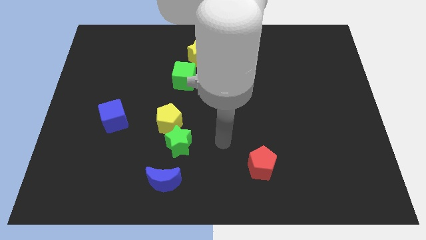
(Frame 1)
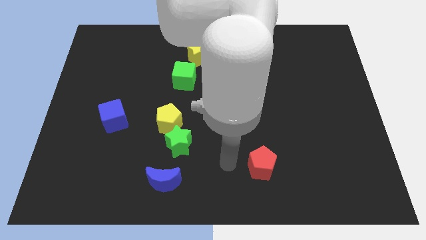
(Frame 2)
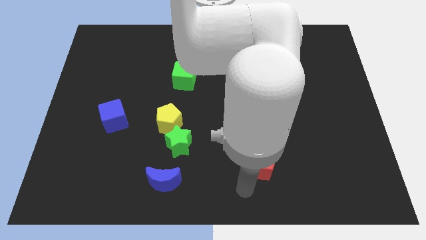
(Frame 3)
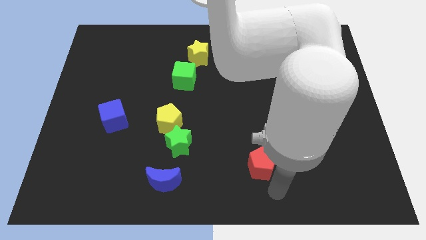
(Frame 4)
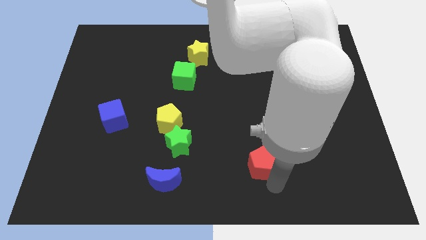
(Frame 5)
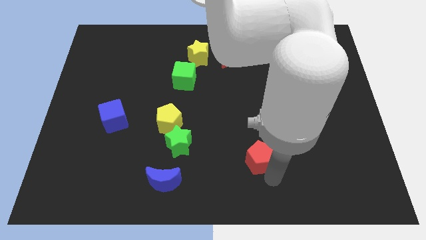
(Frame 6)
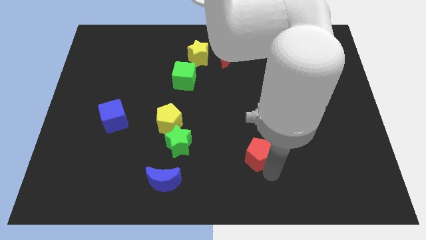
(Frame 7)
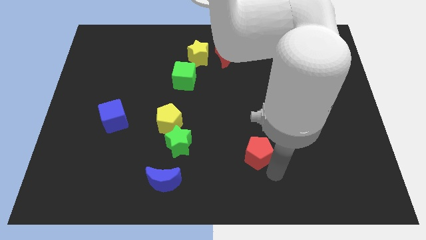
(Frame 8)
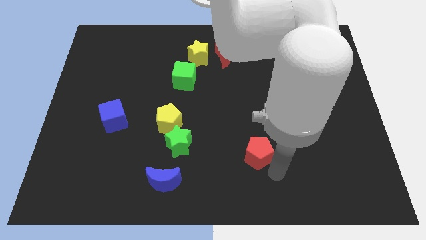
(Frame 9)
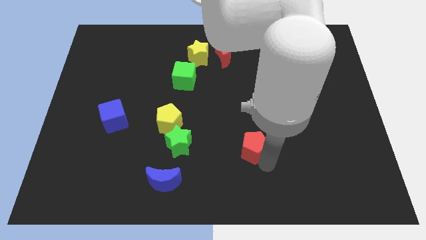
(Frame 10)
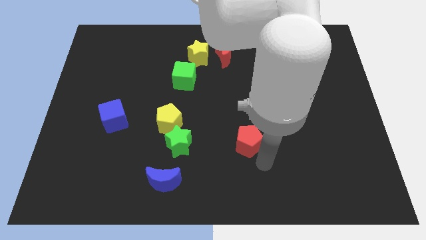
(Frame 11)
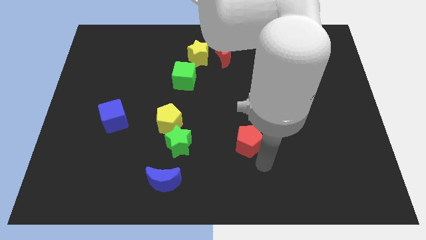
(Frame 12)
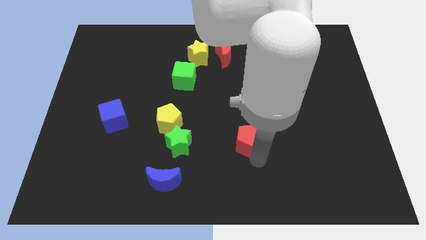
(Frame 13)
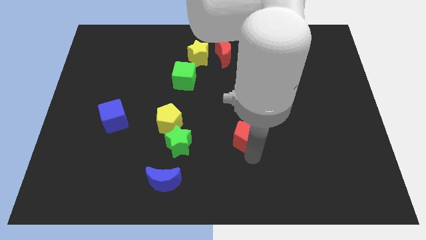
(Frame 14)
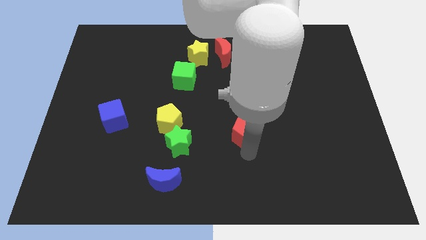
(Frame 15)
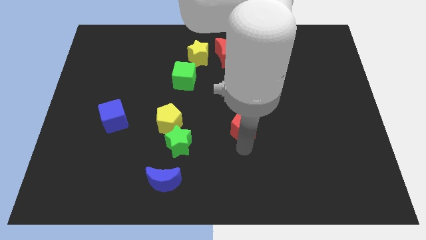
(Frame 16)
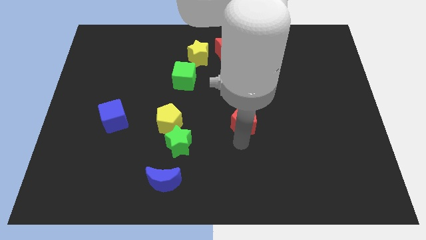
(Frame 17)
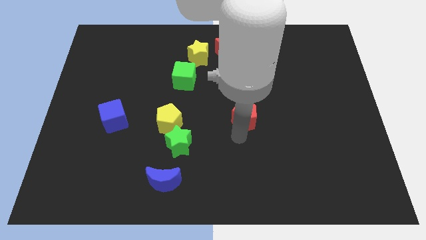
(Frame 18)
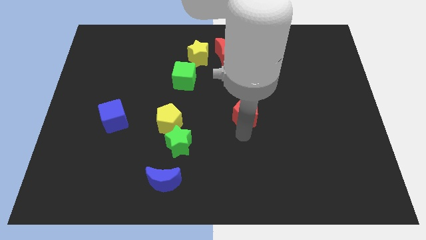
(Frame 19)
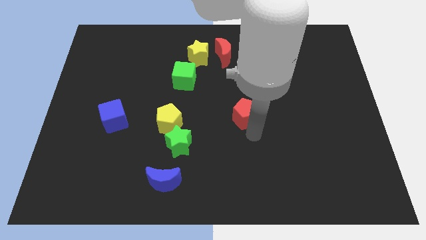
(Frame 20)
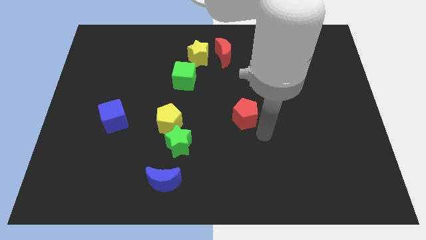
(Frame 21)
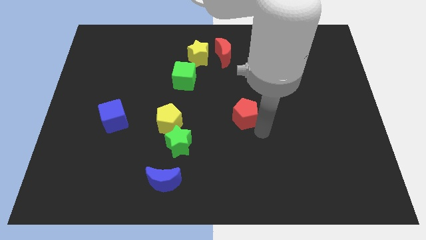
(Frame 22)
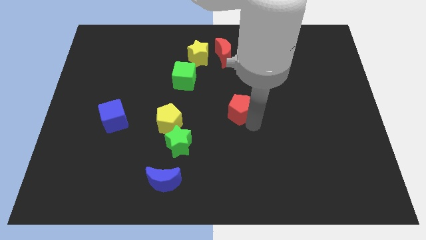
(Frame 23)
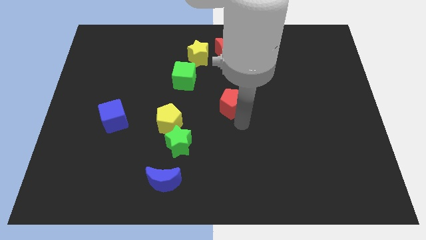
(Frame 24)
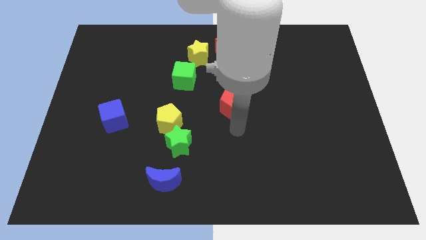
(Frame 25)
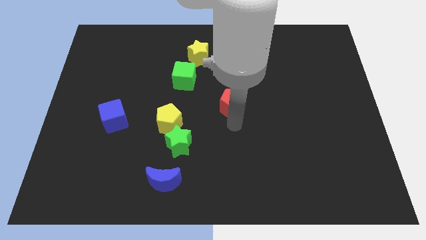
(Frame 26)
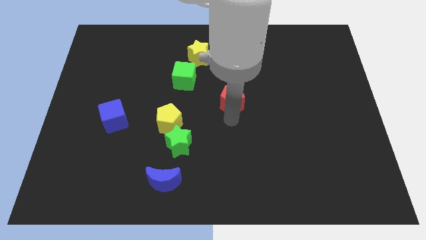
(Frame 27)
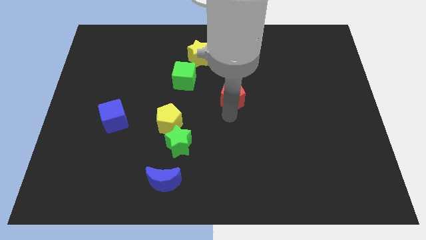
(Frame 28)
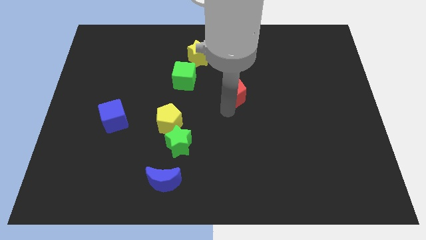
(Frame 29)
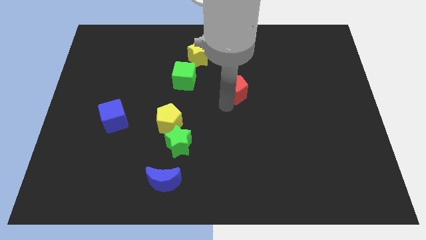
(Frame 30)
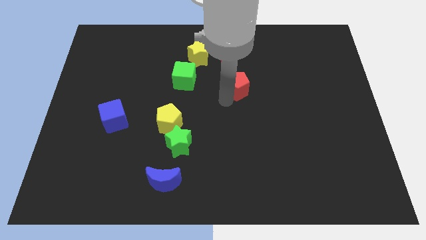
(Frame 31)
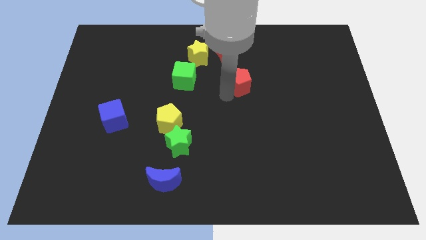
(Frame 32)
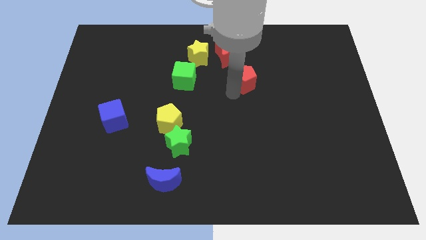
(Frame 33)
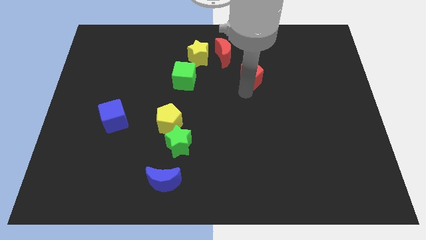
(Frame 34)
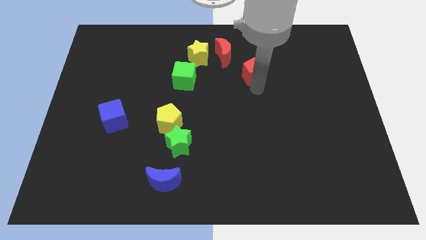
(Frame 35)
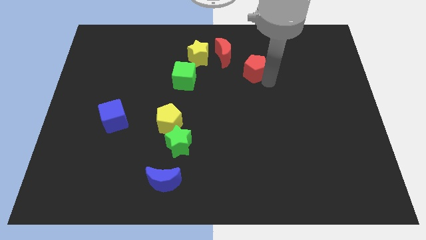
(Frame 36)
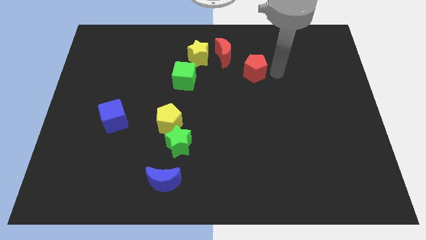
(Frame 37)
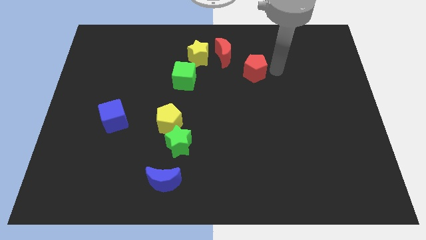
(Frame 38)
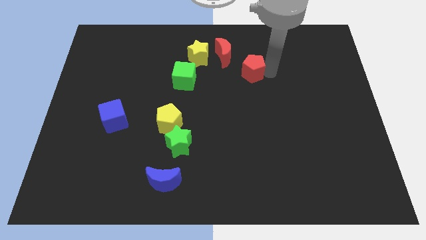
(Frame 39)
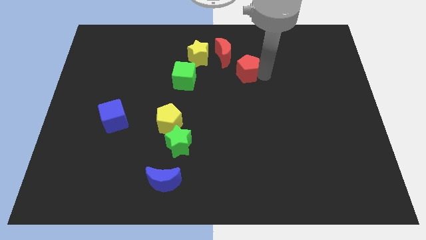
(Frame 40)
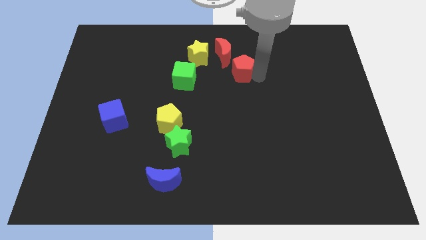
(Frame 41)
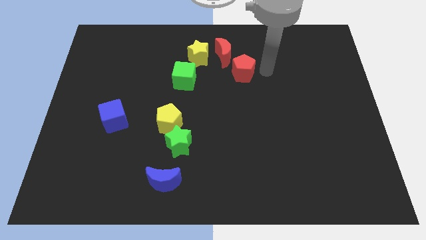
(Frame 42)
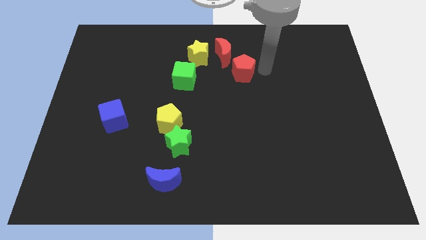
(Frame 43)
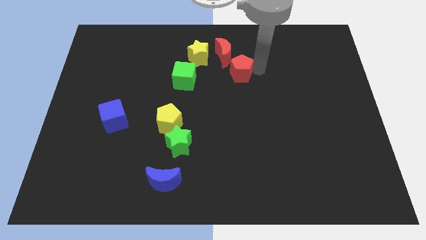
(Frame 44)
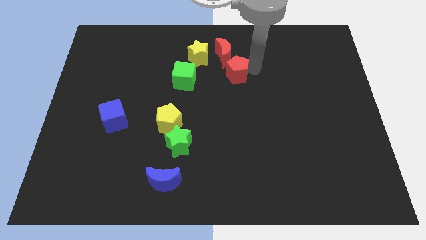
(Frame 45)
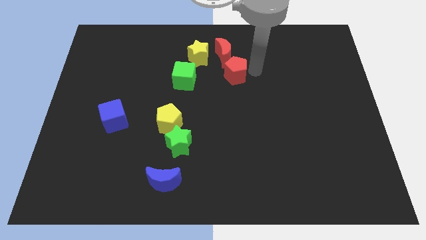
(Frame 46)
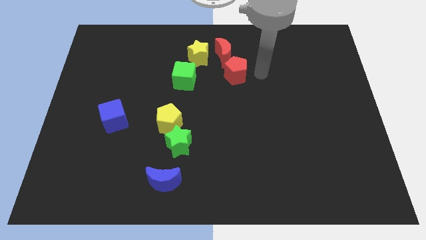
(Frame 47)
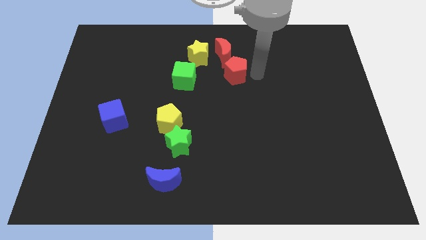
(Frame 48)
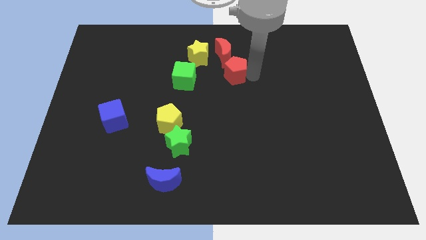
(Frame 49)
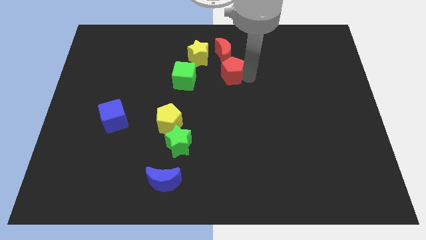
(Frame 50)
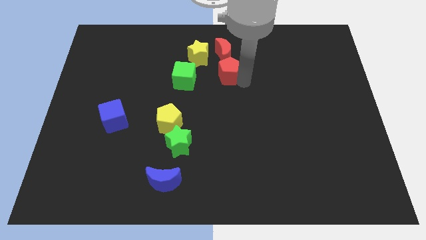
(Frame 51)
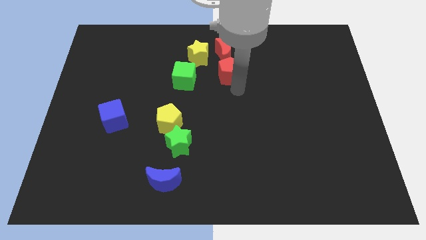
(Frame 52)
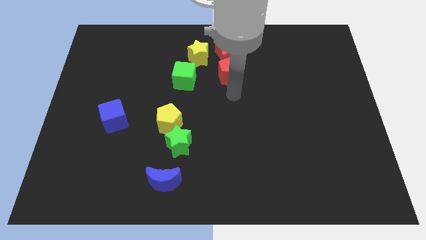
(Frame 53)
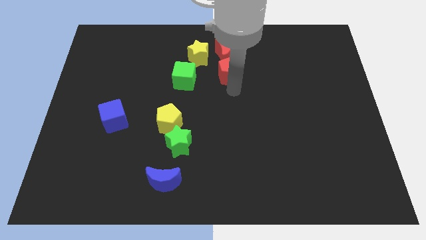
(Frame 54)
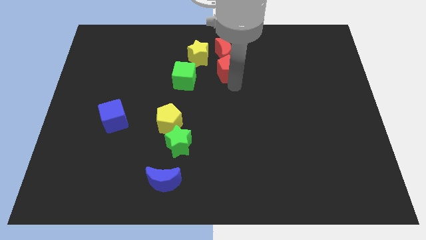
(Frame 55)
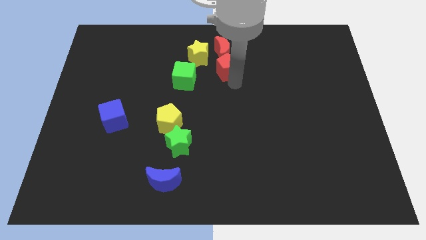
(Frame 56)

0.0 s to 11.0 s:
push the red pentagon next to the red moon

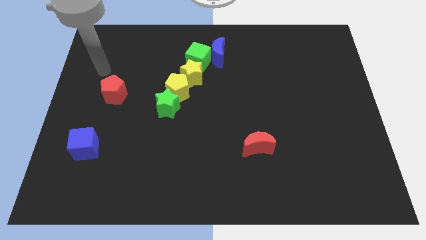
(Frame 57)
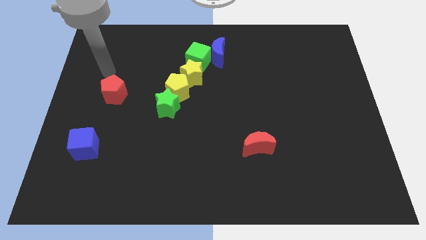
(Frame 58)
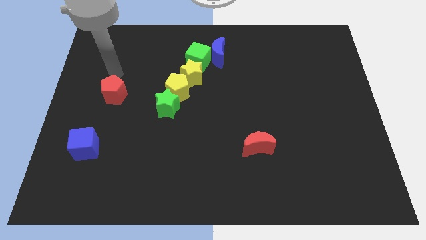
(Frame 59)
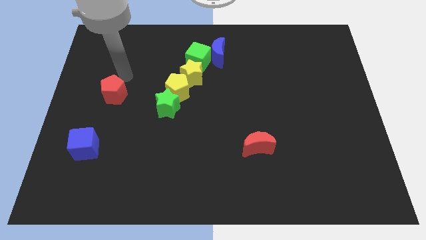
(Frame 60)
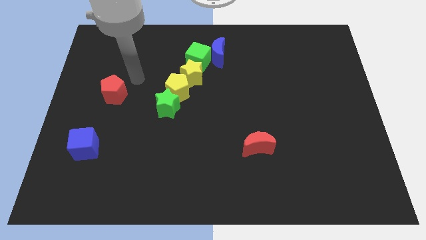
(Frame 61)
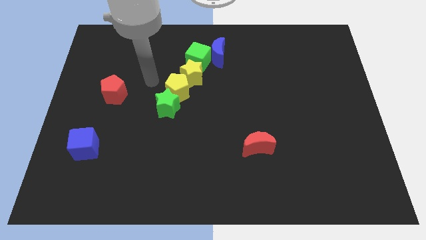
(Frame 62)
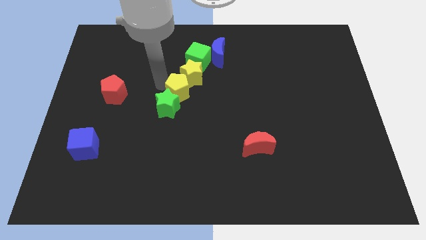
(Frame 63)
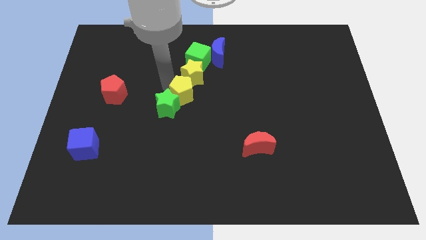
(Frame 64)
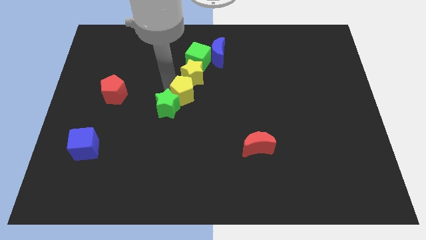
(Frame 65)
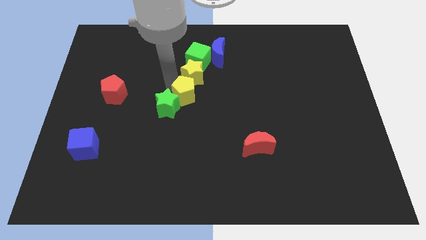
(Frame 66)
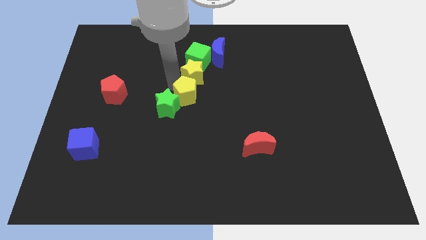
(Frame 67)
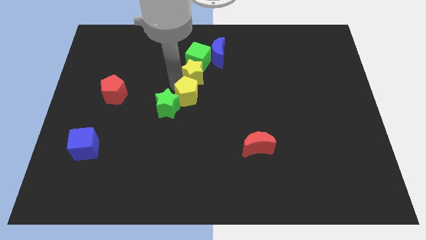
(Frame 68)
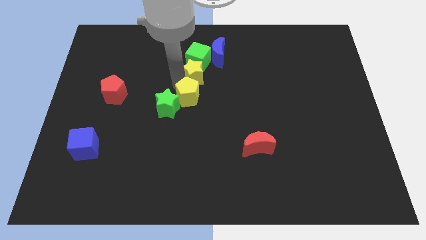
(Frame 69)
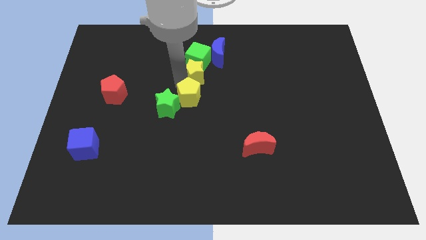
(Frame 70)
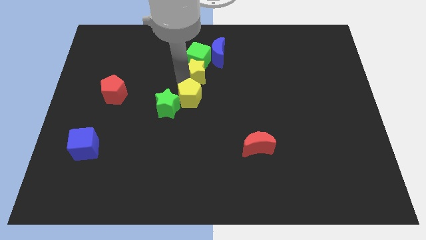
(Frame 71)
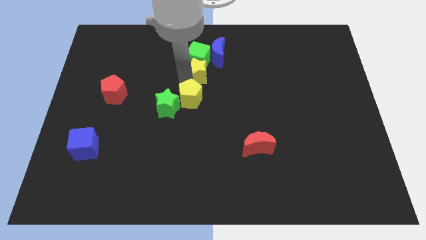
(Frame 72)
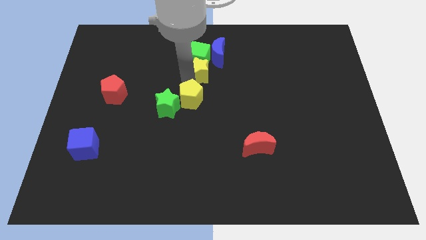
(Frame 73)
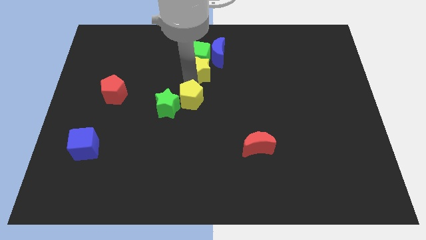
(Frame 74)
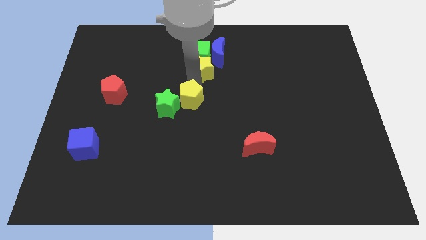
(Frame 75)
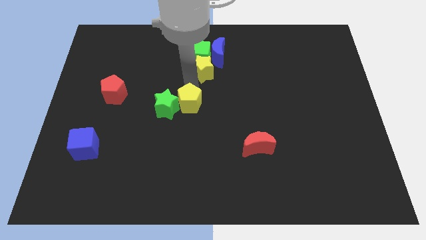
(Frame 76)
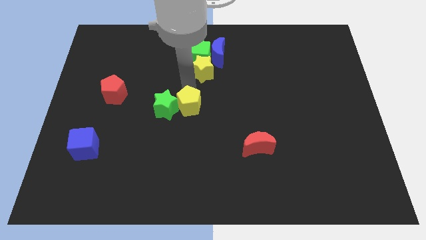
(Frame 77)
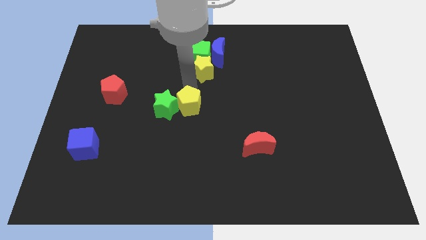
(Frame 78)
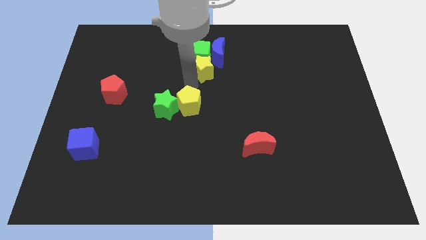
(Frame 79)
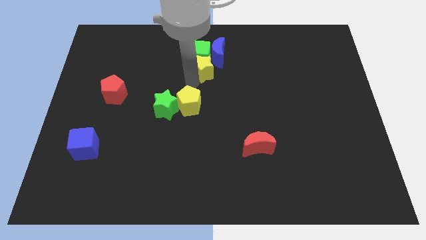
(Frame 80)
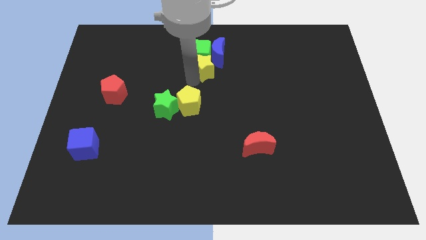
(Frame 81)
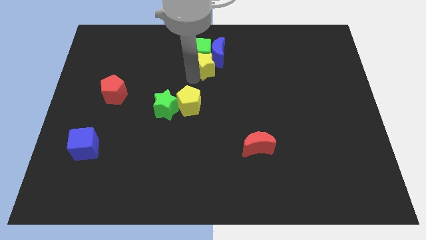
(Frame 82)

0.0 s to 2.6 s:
put the yellow star next to the blue moon
